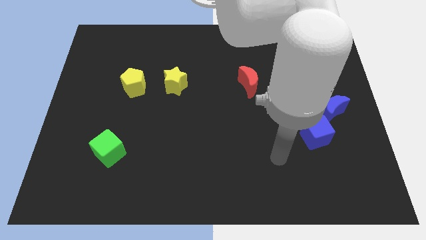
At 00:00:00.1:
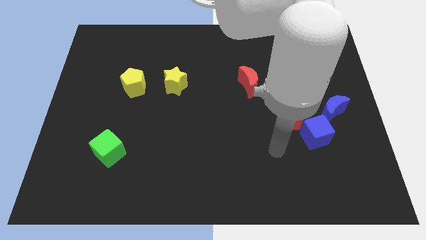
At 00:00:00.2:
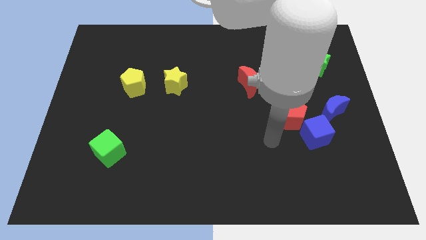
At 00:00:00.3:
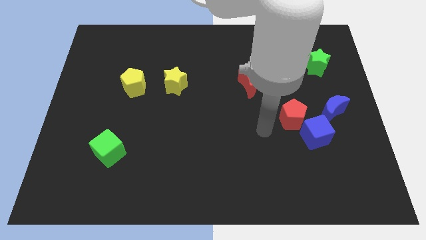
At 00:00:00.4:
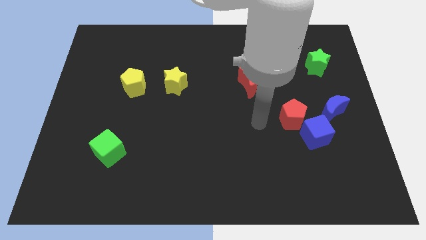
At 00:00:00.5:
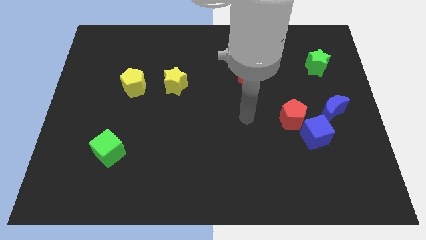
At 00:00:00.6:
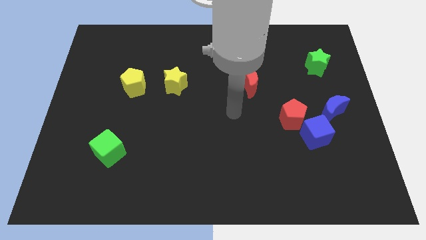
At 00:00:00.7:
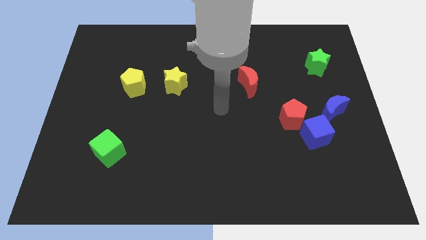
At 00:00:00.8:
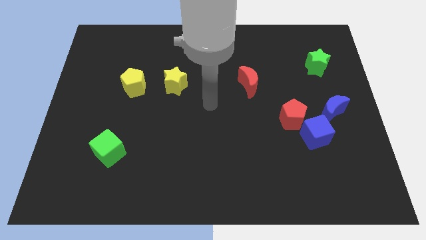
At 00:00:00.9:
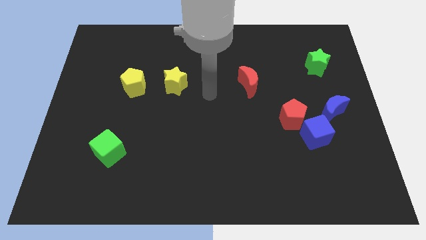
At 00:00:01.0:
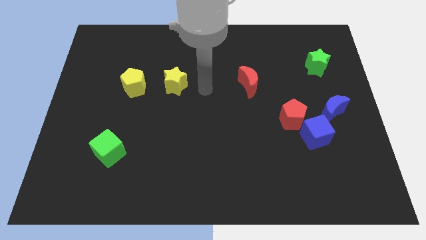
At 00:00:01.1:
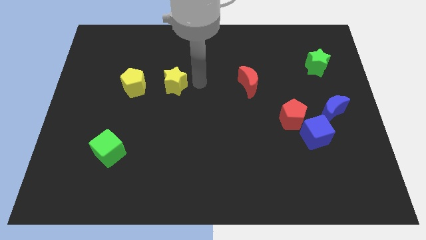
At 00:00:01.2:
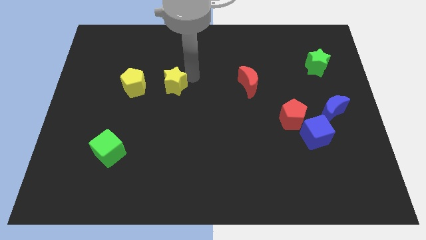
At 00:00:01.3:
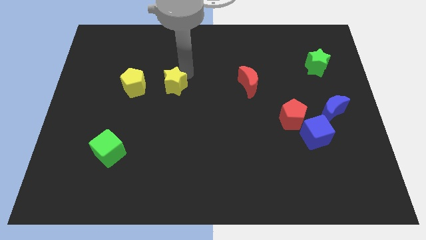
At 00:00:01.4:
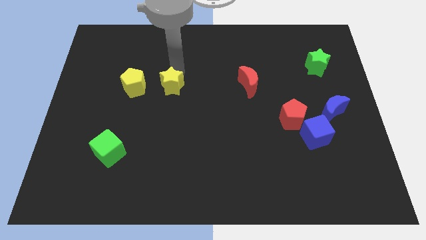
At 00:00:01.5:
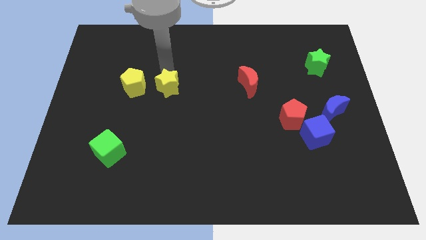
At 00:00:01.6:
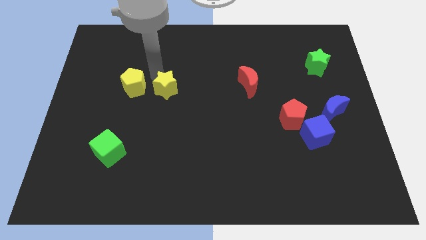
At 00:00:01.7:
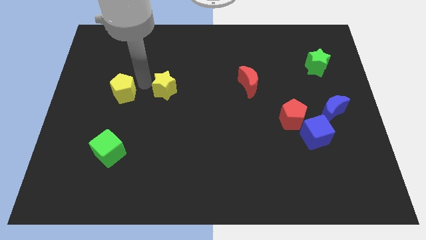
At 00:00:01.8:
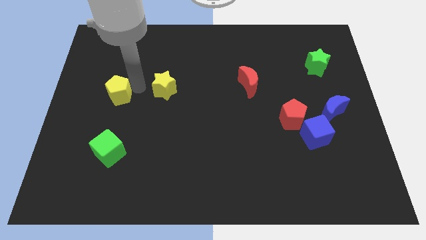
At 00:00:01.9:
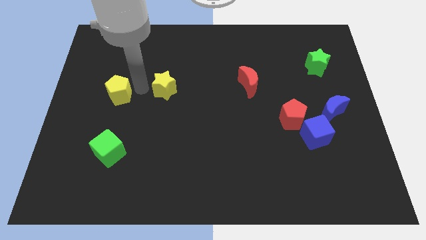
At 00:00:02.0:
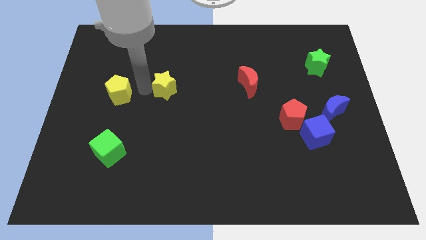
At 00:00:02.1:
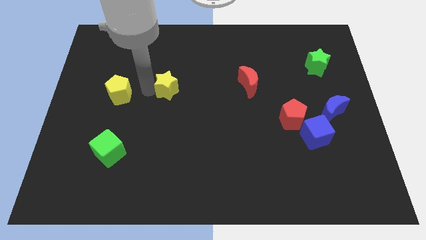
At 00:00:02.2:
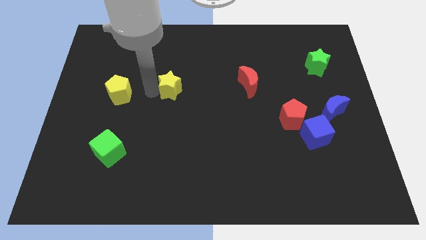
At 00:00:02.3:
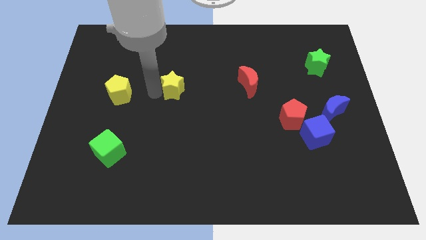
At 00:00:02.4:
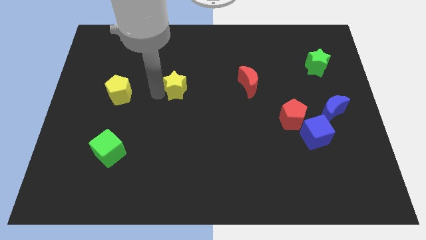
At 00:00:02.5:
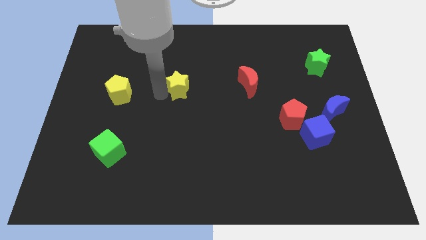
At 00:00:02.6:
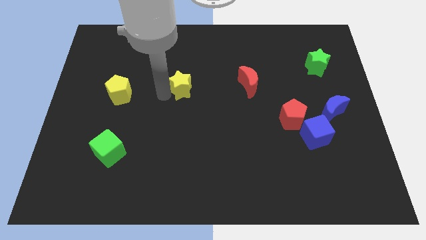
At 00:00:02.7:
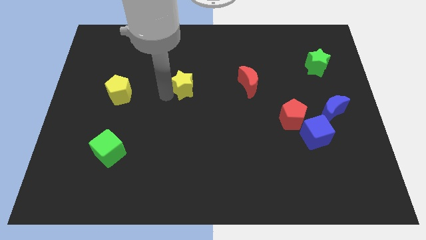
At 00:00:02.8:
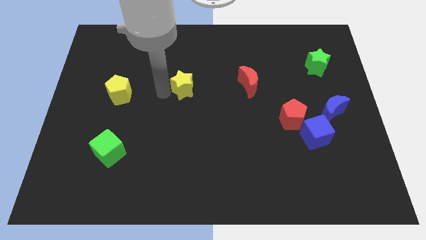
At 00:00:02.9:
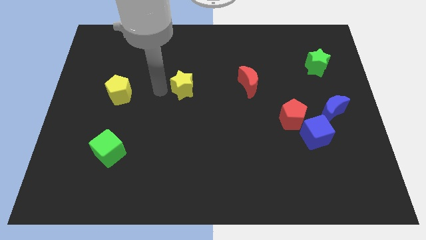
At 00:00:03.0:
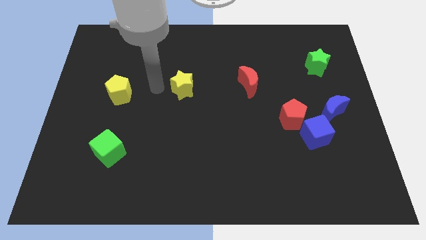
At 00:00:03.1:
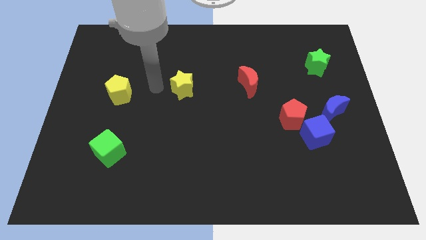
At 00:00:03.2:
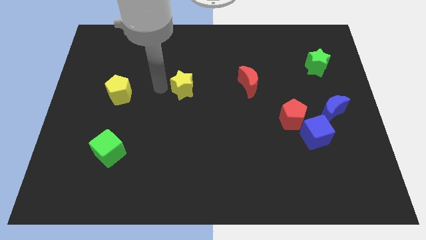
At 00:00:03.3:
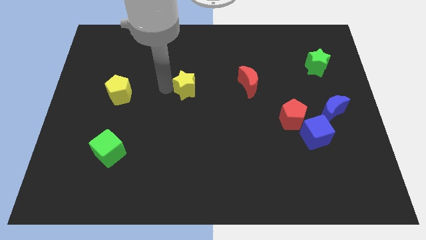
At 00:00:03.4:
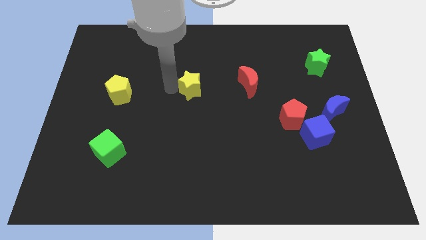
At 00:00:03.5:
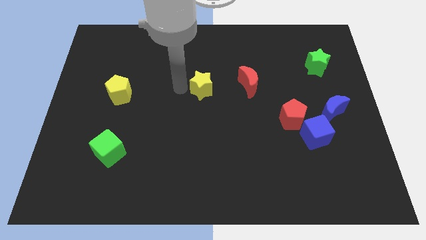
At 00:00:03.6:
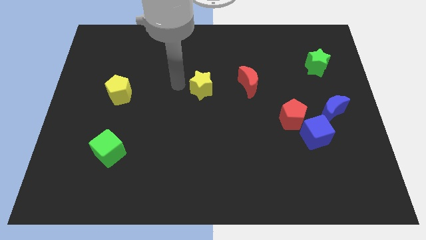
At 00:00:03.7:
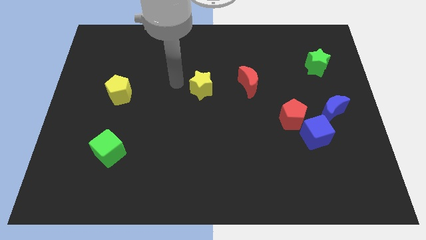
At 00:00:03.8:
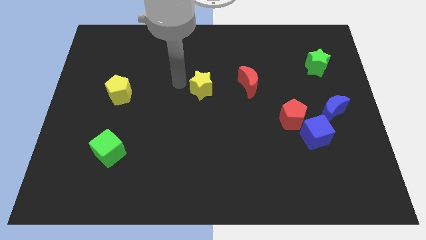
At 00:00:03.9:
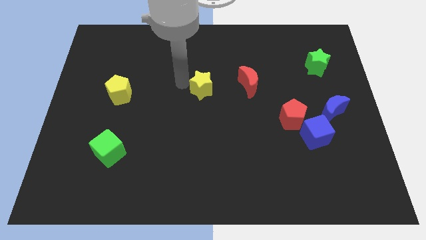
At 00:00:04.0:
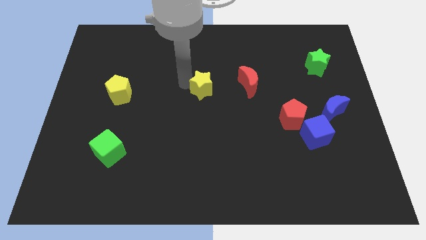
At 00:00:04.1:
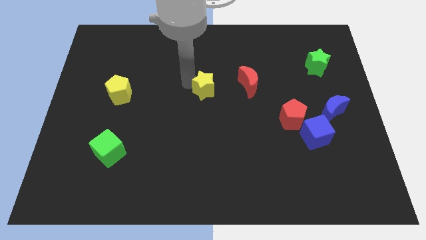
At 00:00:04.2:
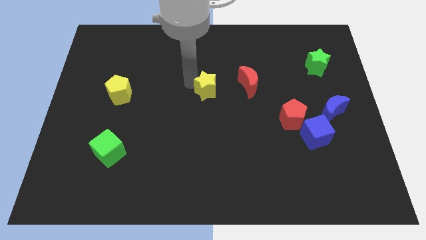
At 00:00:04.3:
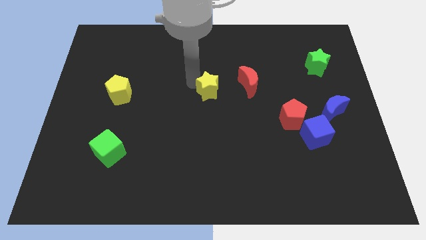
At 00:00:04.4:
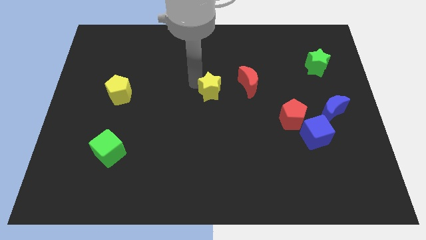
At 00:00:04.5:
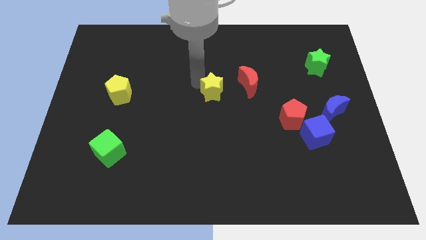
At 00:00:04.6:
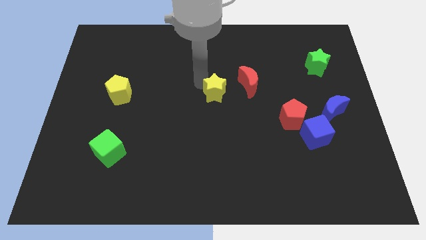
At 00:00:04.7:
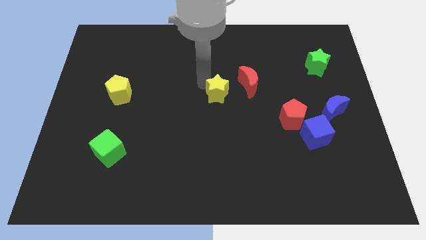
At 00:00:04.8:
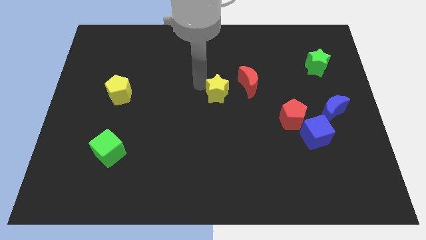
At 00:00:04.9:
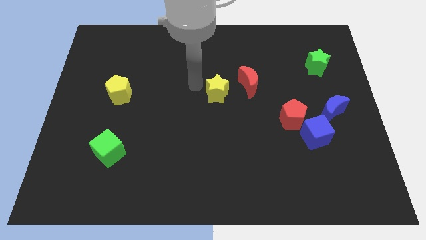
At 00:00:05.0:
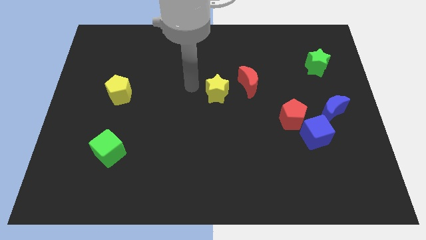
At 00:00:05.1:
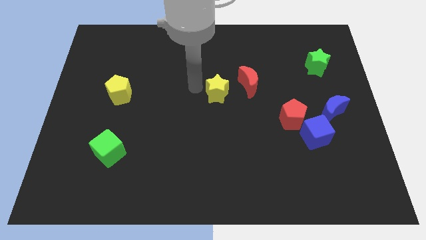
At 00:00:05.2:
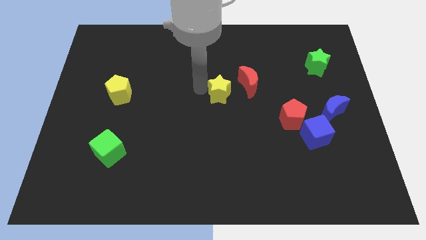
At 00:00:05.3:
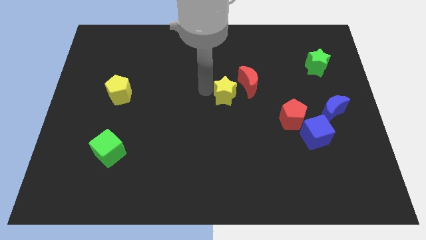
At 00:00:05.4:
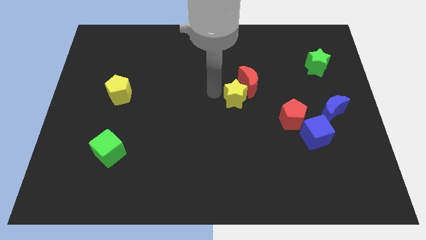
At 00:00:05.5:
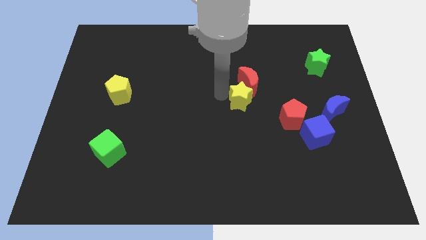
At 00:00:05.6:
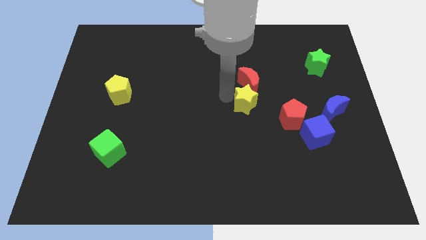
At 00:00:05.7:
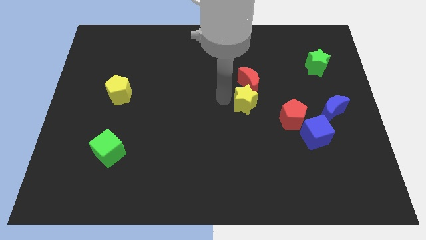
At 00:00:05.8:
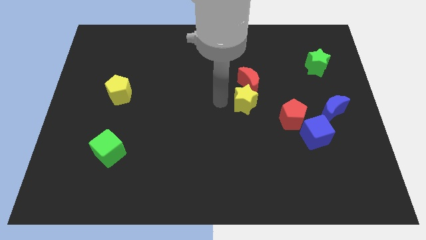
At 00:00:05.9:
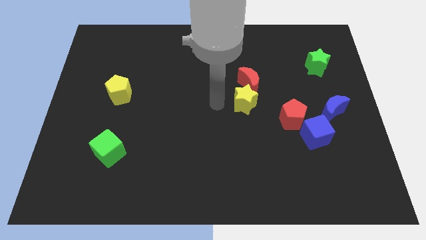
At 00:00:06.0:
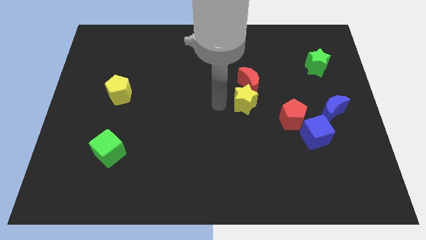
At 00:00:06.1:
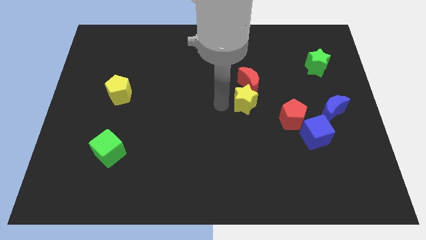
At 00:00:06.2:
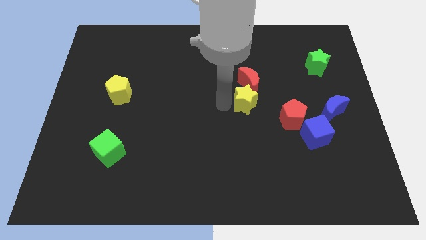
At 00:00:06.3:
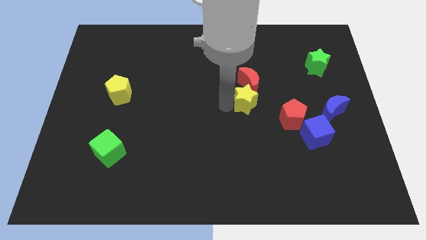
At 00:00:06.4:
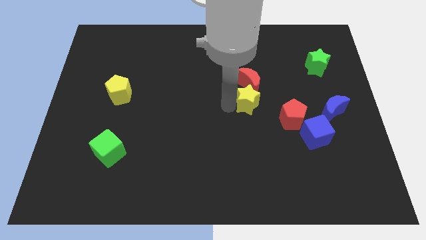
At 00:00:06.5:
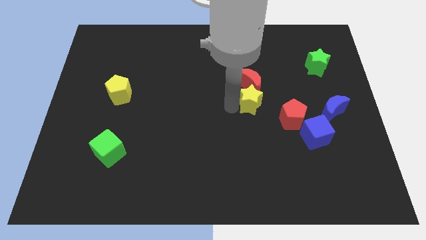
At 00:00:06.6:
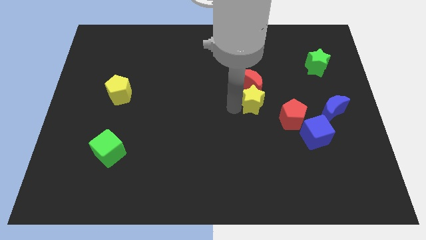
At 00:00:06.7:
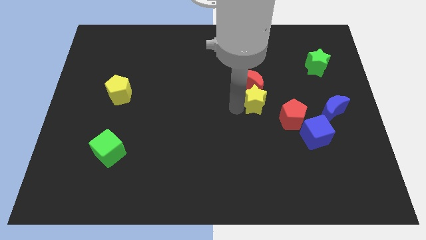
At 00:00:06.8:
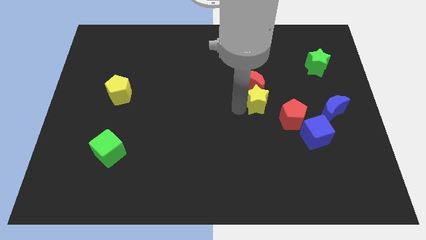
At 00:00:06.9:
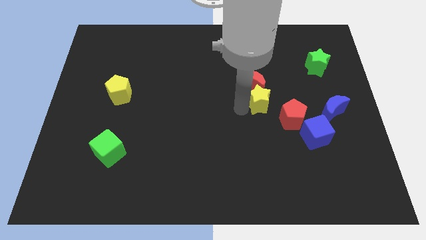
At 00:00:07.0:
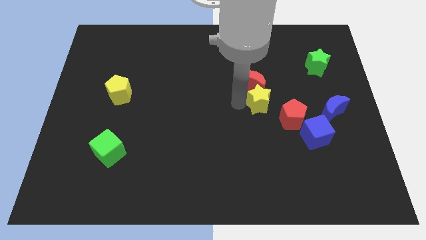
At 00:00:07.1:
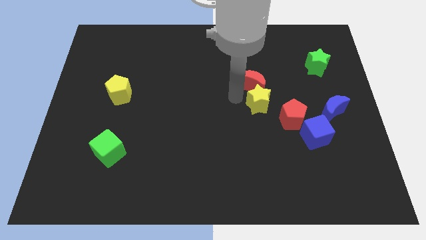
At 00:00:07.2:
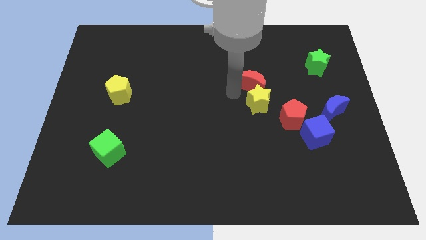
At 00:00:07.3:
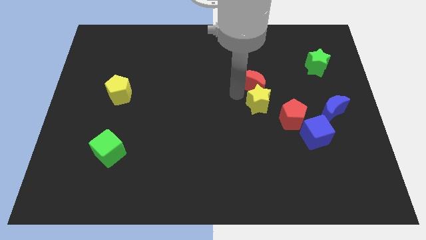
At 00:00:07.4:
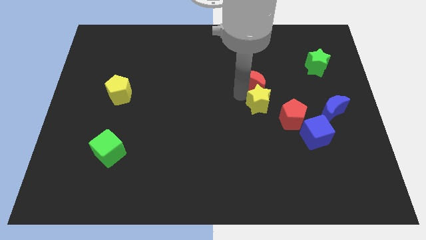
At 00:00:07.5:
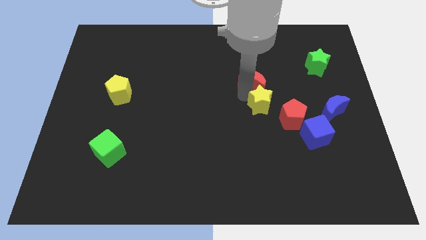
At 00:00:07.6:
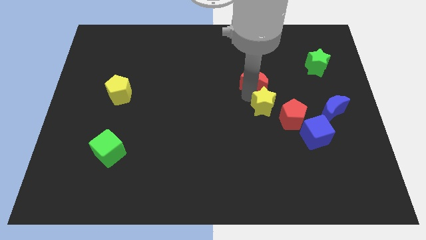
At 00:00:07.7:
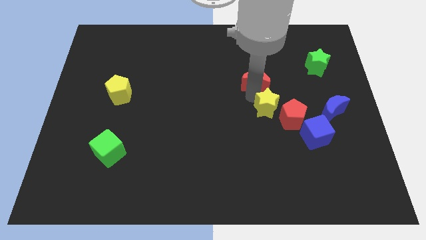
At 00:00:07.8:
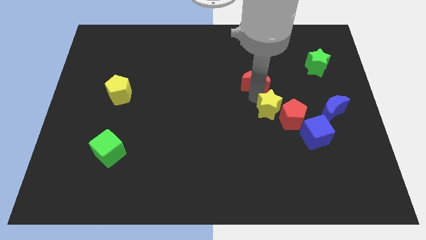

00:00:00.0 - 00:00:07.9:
move the yellow star next to the red pentagon
